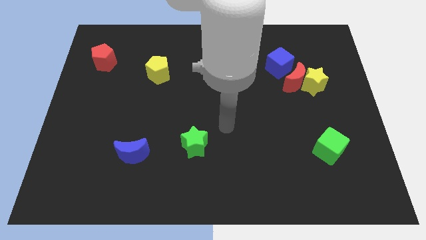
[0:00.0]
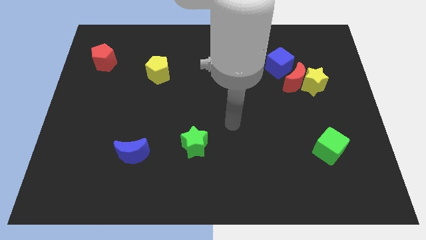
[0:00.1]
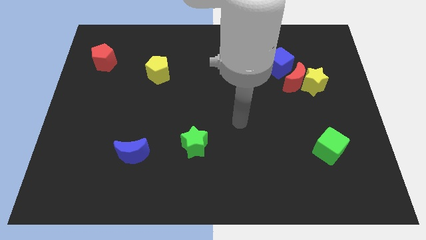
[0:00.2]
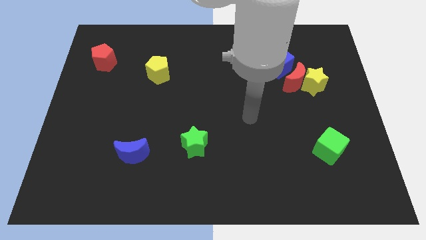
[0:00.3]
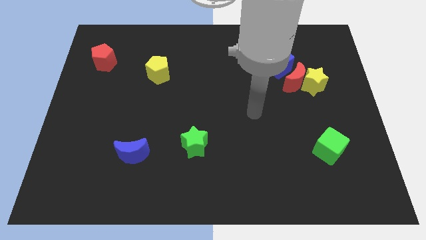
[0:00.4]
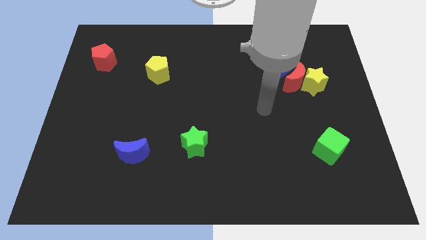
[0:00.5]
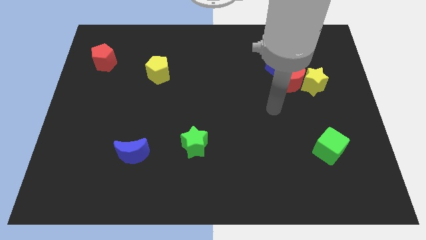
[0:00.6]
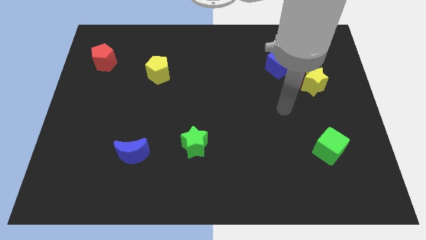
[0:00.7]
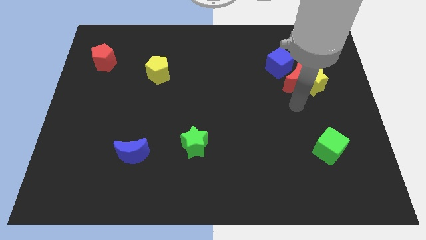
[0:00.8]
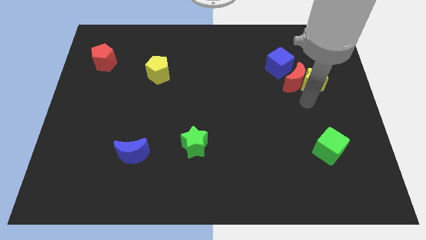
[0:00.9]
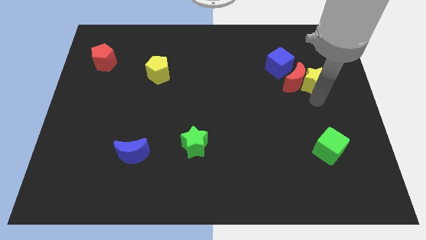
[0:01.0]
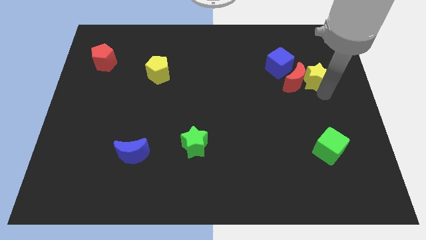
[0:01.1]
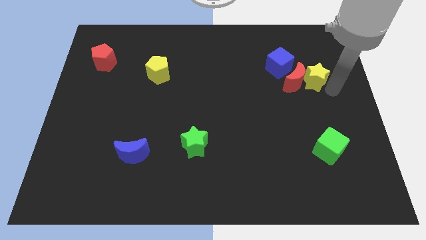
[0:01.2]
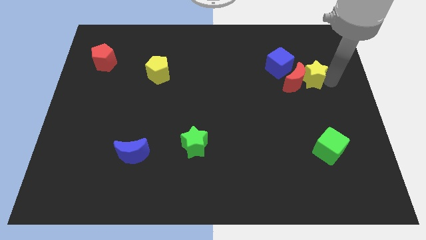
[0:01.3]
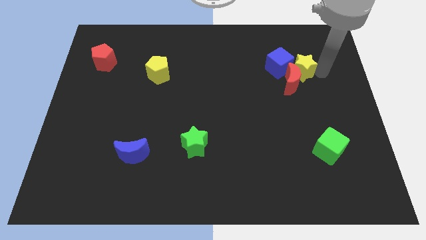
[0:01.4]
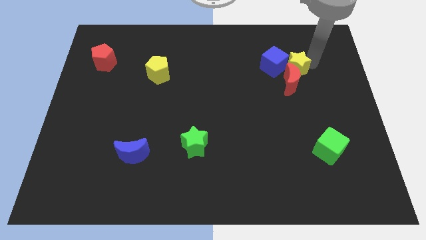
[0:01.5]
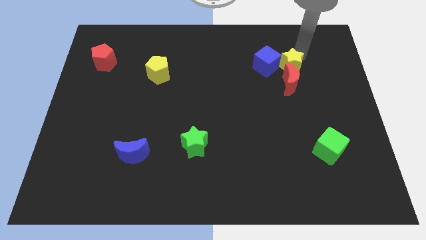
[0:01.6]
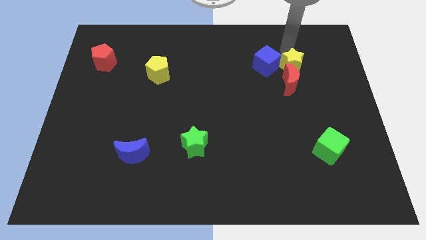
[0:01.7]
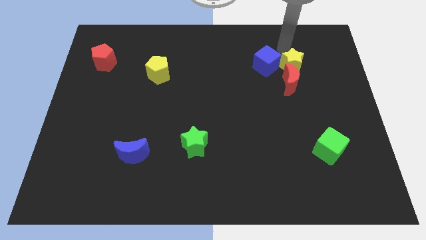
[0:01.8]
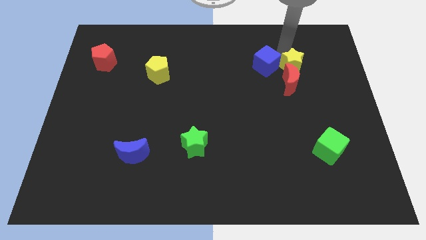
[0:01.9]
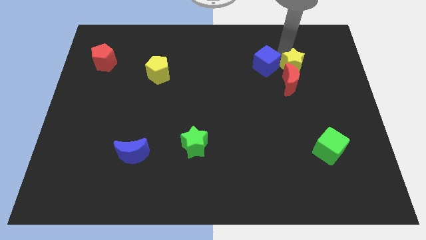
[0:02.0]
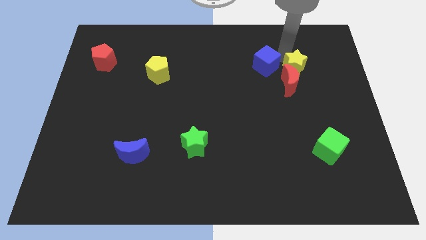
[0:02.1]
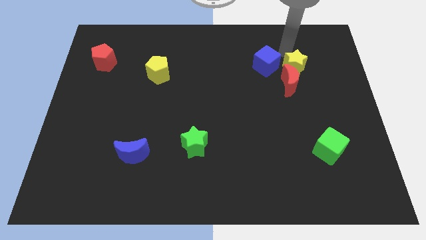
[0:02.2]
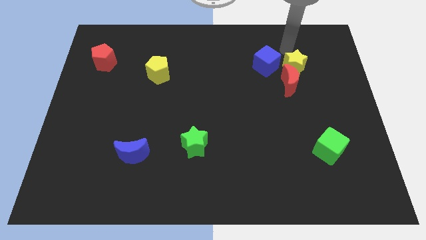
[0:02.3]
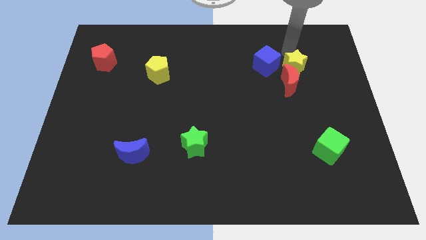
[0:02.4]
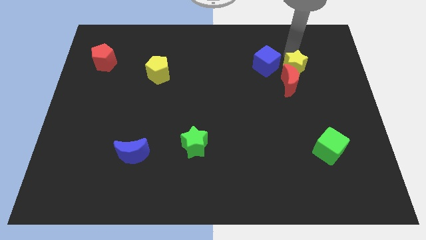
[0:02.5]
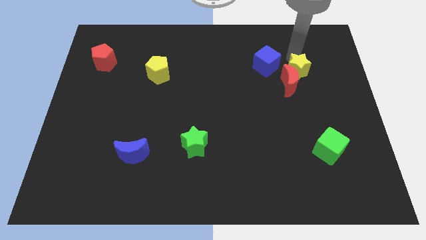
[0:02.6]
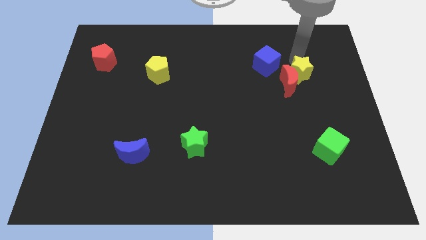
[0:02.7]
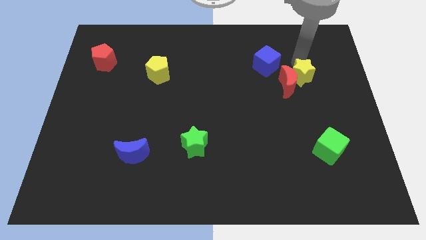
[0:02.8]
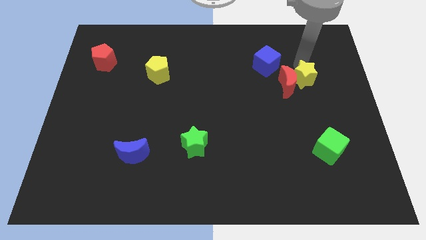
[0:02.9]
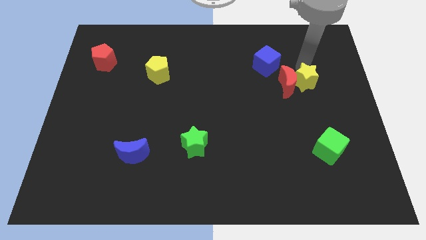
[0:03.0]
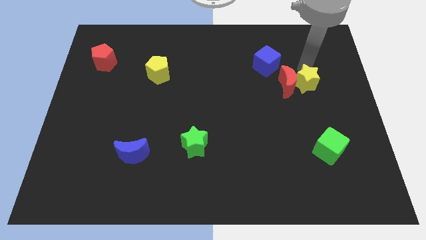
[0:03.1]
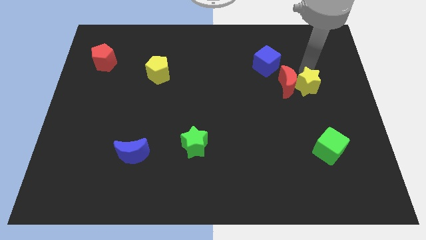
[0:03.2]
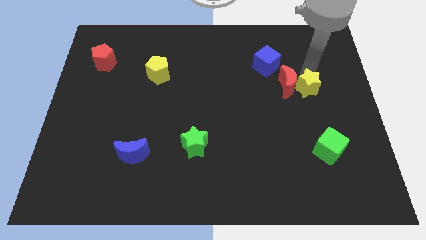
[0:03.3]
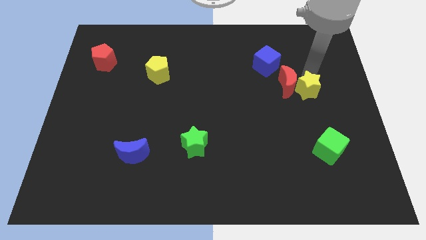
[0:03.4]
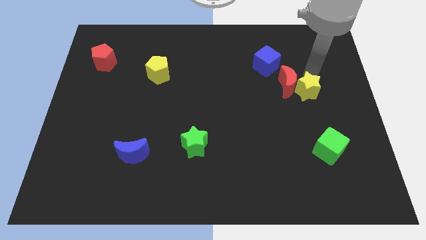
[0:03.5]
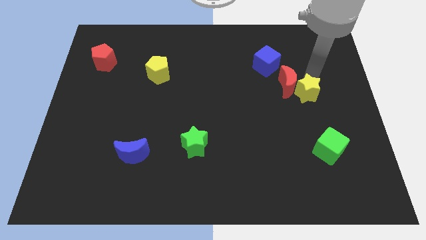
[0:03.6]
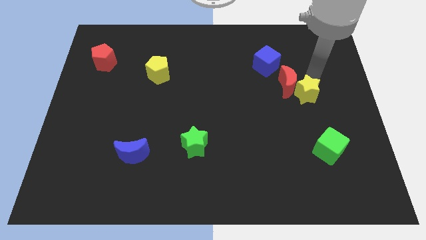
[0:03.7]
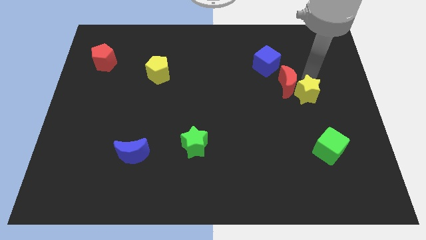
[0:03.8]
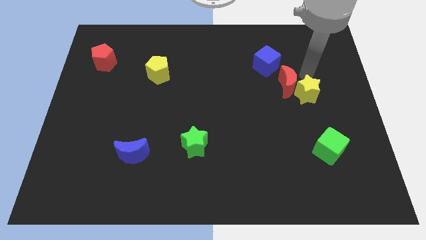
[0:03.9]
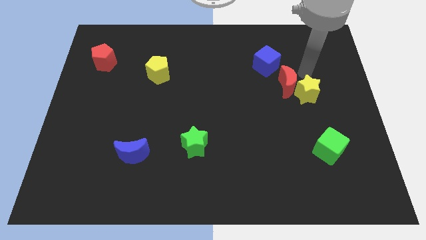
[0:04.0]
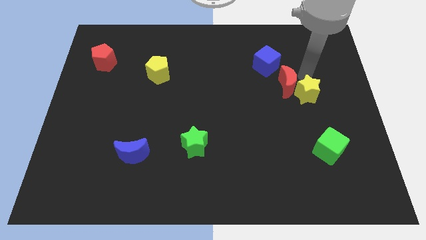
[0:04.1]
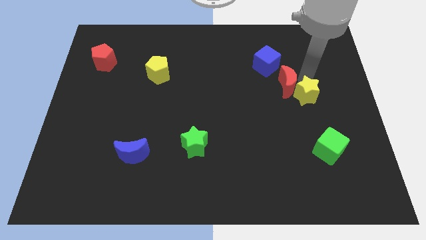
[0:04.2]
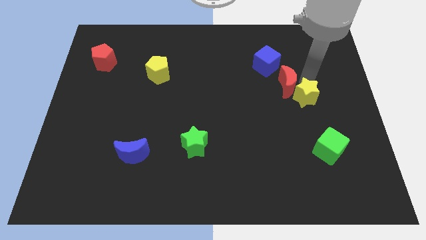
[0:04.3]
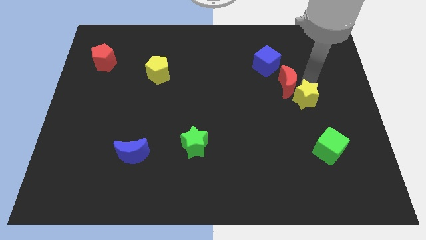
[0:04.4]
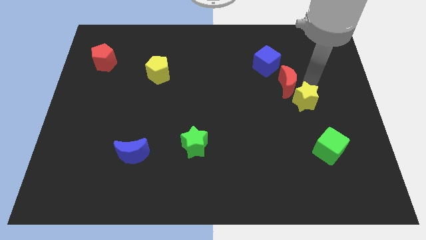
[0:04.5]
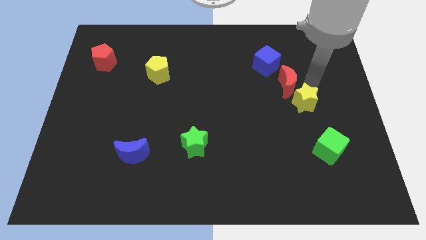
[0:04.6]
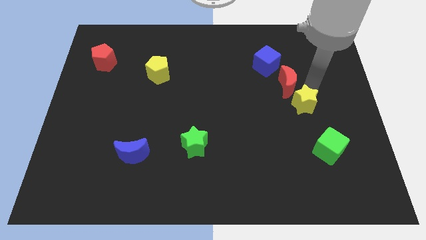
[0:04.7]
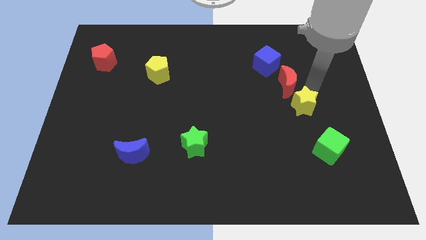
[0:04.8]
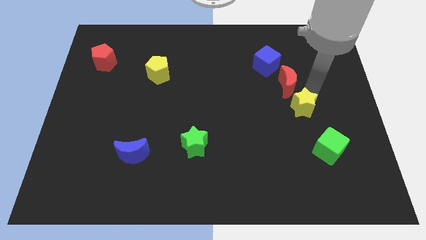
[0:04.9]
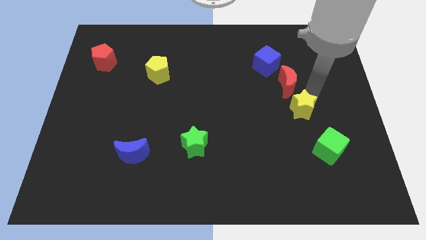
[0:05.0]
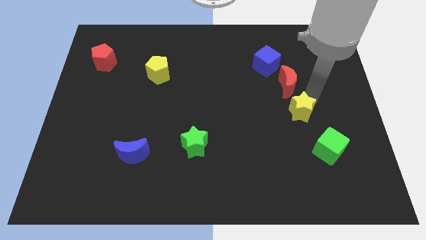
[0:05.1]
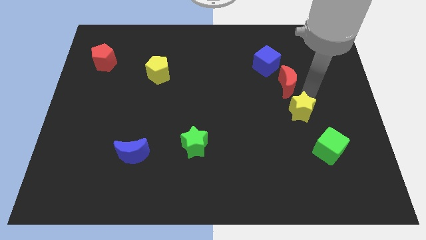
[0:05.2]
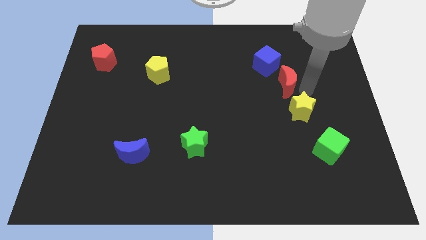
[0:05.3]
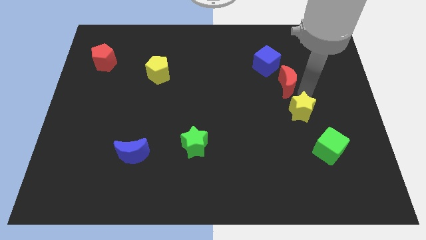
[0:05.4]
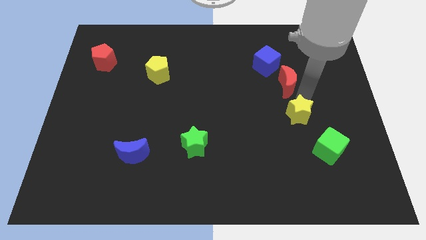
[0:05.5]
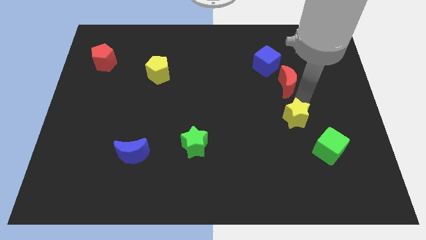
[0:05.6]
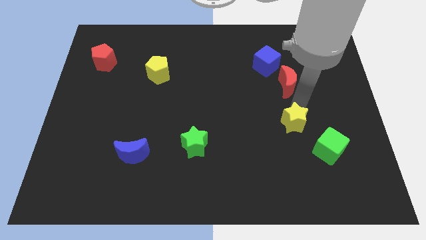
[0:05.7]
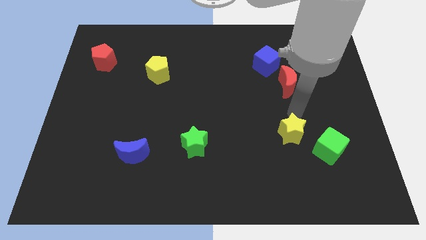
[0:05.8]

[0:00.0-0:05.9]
put the yellow star to the left side of the green cube

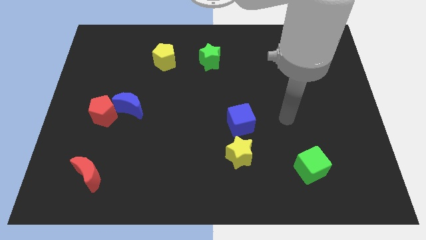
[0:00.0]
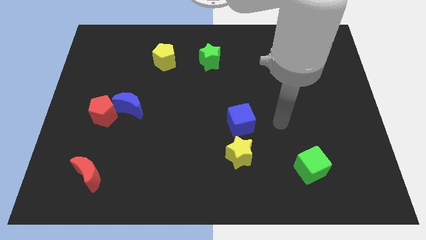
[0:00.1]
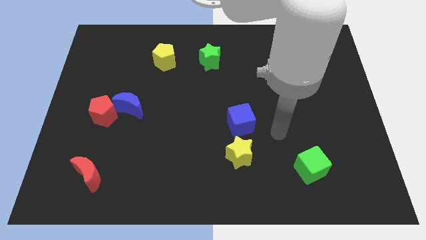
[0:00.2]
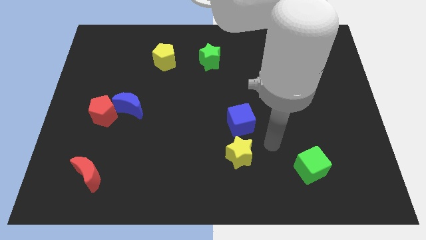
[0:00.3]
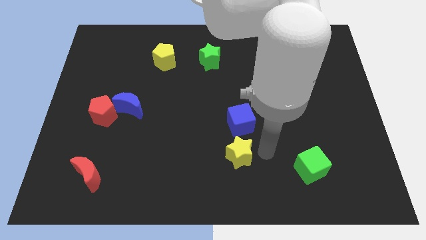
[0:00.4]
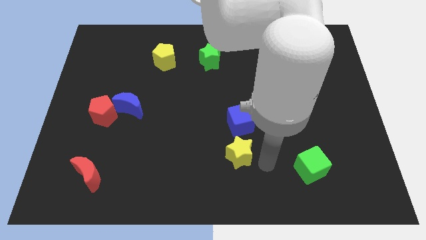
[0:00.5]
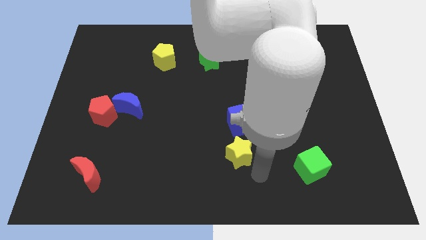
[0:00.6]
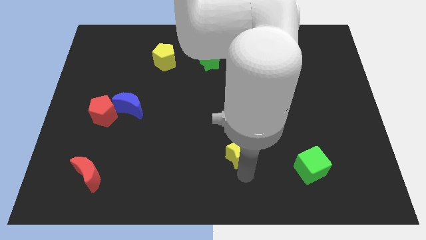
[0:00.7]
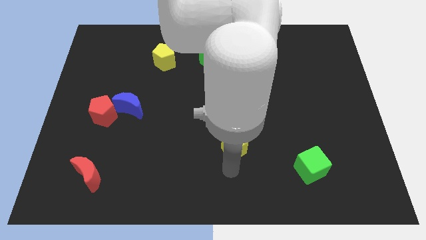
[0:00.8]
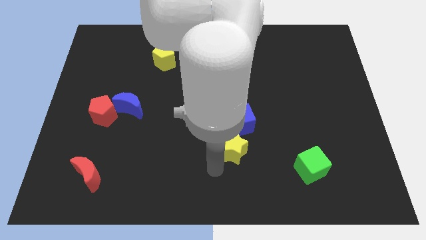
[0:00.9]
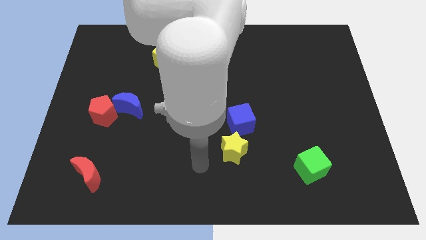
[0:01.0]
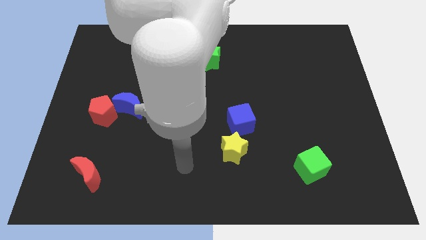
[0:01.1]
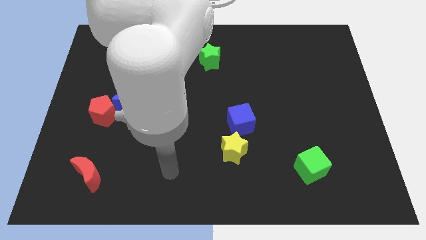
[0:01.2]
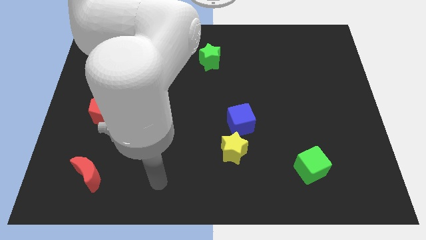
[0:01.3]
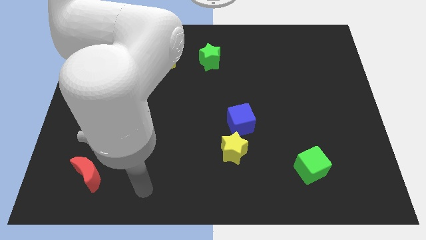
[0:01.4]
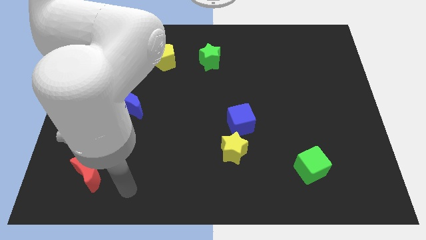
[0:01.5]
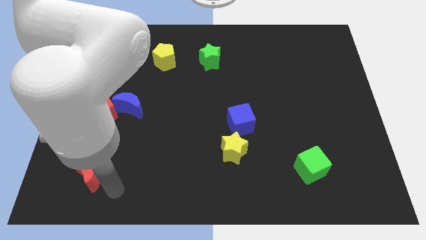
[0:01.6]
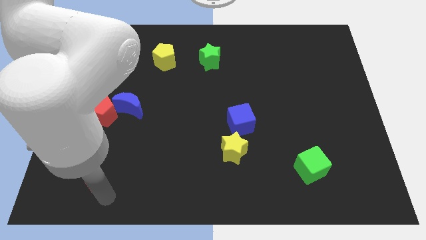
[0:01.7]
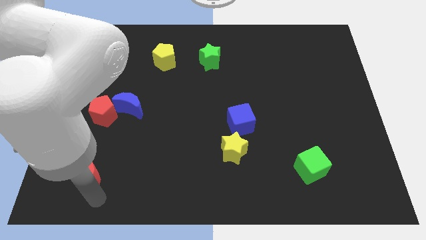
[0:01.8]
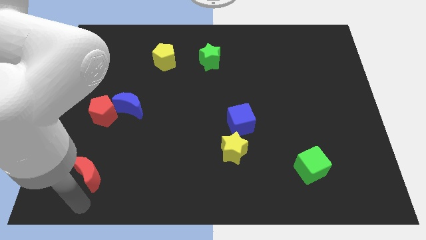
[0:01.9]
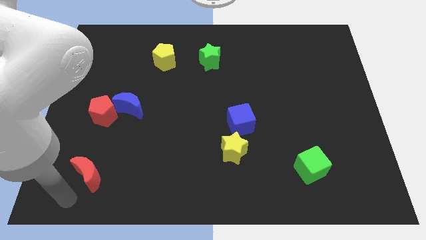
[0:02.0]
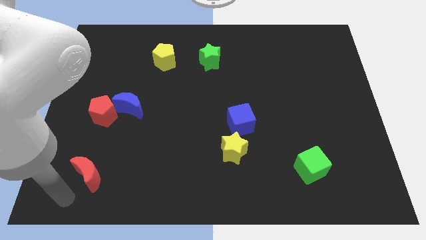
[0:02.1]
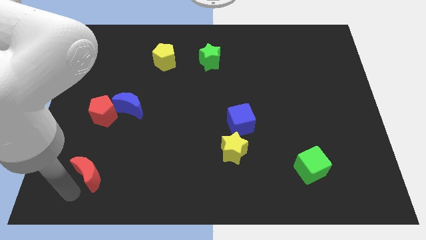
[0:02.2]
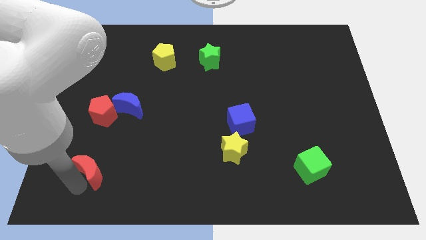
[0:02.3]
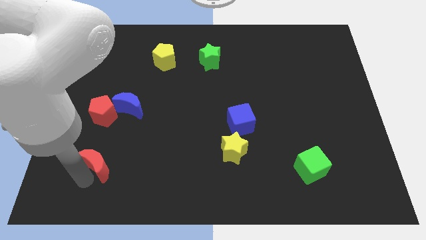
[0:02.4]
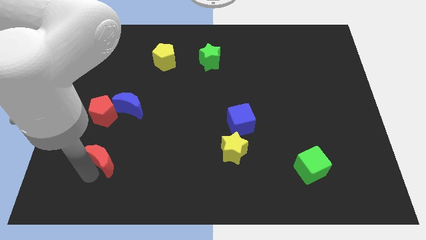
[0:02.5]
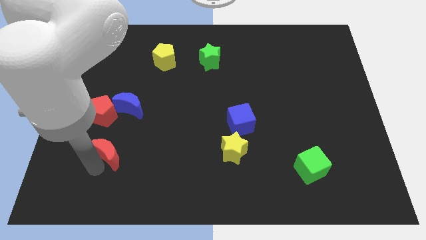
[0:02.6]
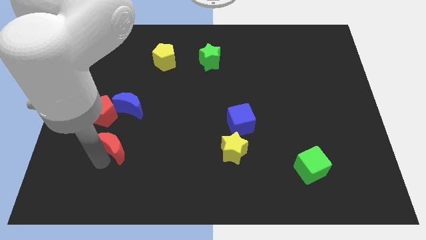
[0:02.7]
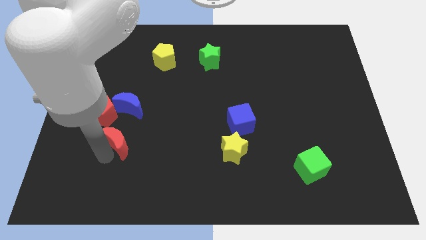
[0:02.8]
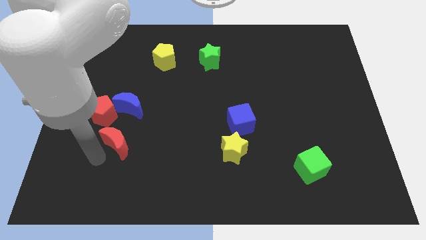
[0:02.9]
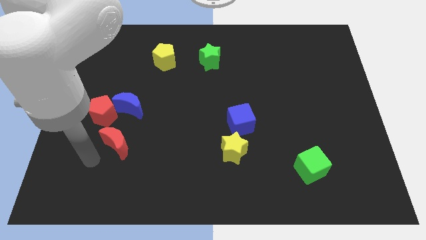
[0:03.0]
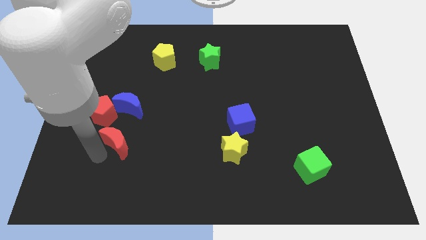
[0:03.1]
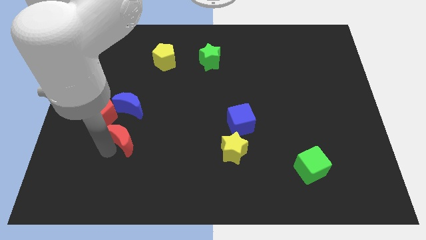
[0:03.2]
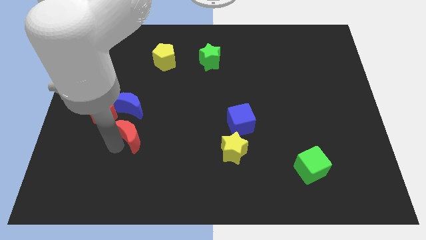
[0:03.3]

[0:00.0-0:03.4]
move the red moon to the bottom right of the blue moon
